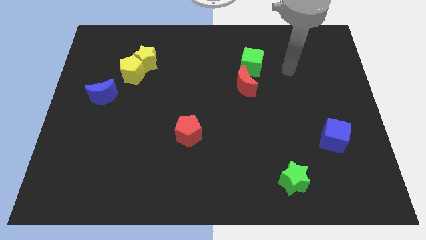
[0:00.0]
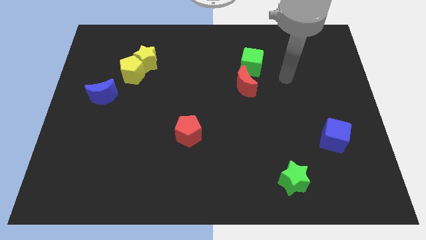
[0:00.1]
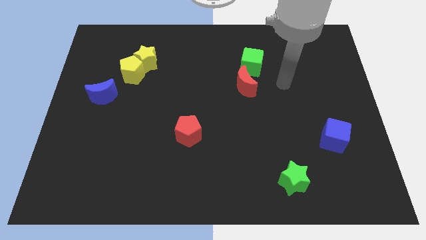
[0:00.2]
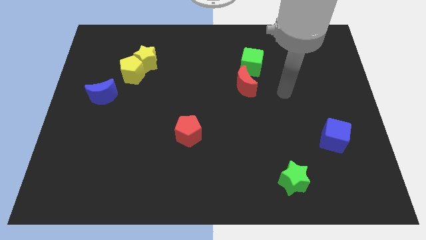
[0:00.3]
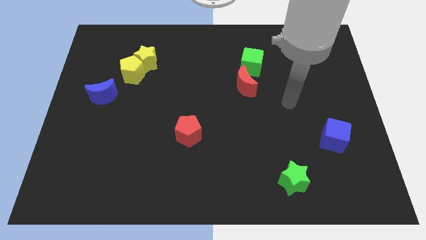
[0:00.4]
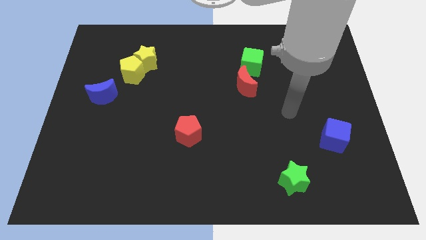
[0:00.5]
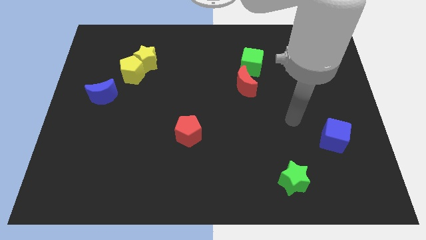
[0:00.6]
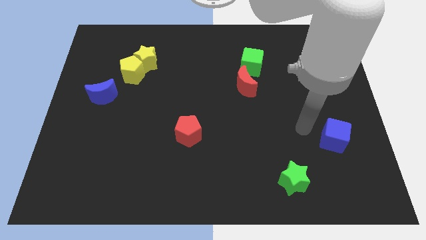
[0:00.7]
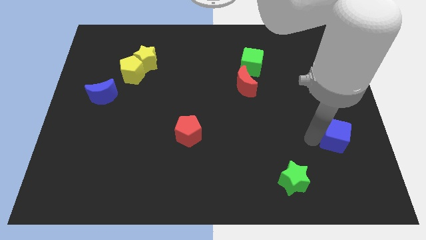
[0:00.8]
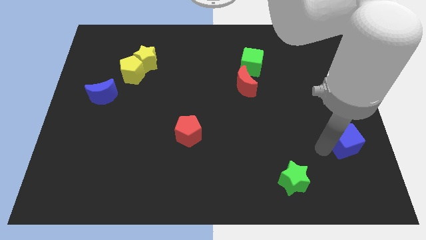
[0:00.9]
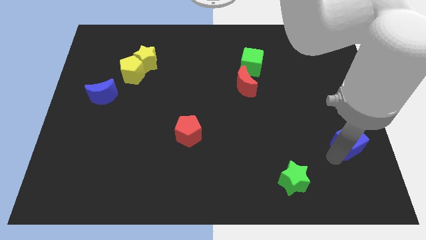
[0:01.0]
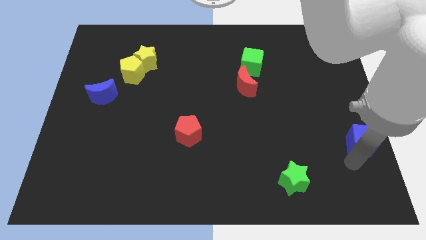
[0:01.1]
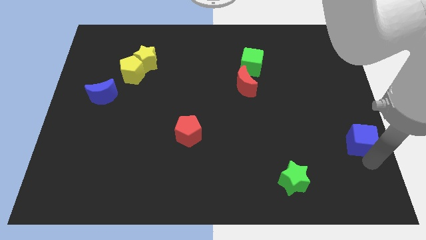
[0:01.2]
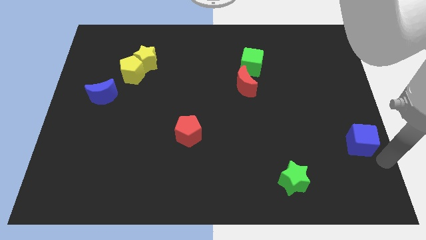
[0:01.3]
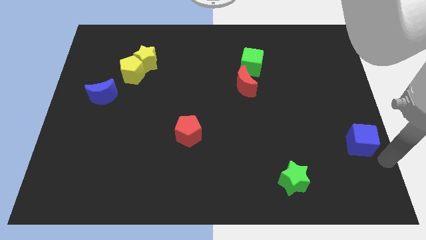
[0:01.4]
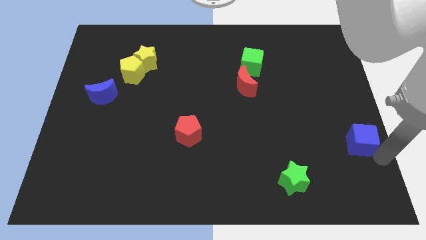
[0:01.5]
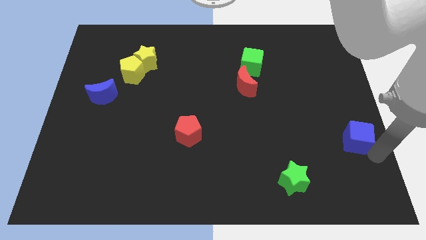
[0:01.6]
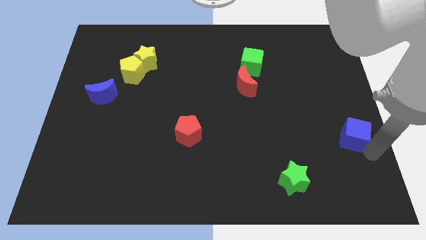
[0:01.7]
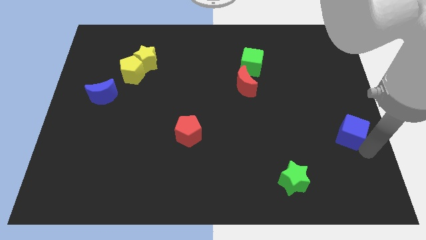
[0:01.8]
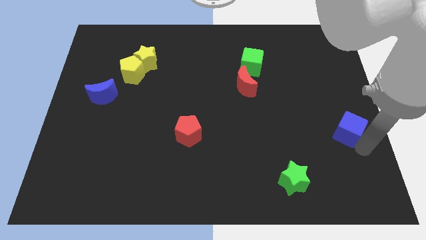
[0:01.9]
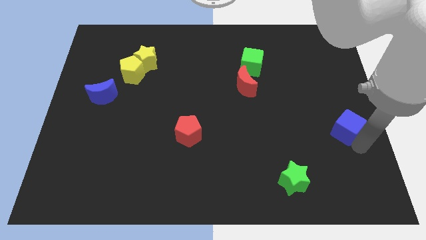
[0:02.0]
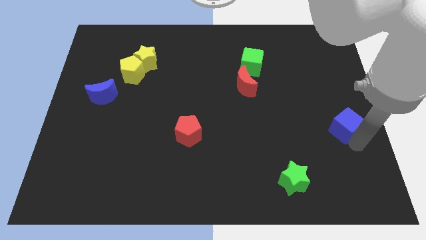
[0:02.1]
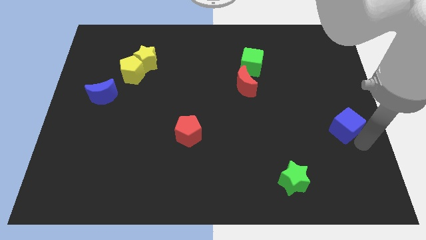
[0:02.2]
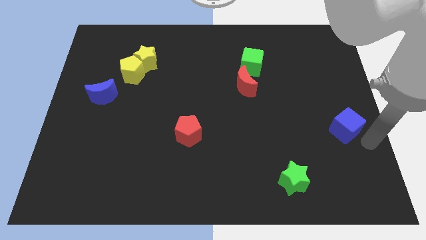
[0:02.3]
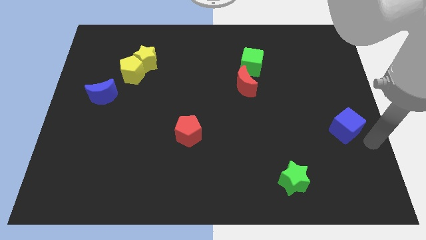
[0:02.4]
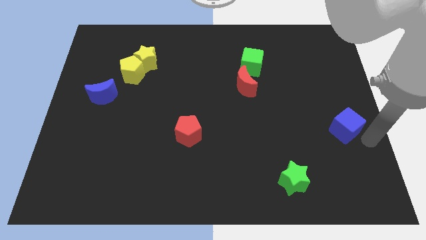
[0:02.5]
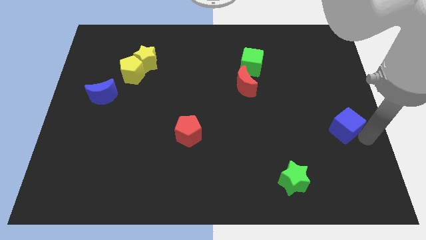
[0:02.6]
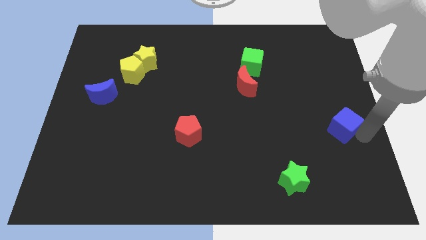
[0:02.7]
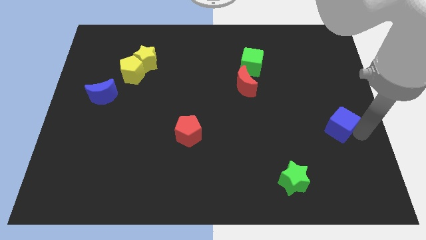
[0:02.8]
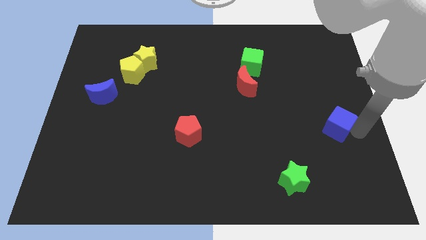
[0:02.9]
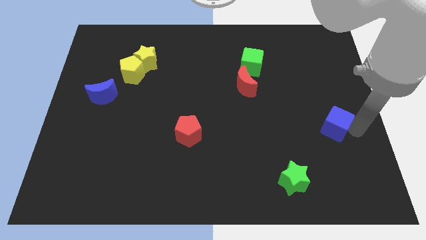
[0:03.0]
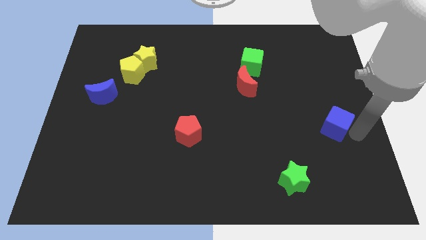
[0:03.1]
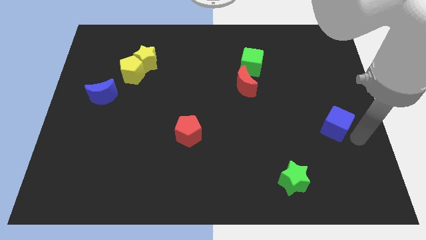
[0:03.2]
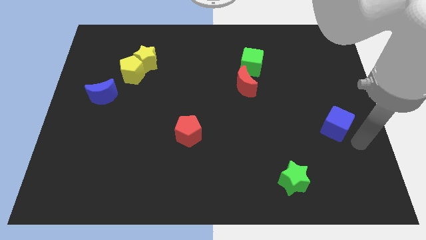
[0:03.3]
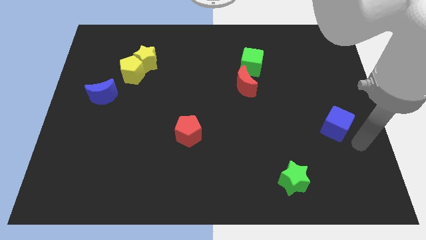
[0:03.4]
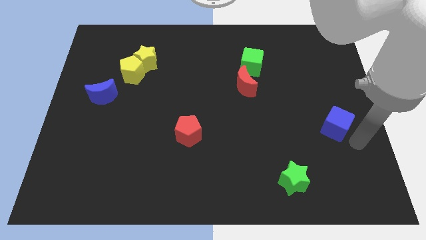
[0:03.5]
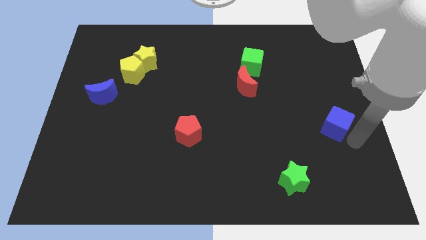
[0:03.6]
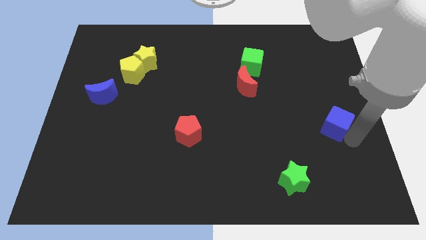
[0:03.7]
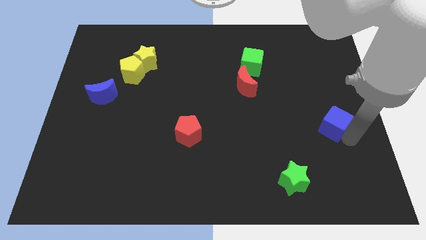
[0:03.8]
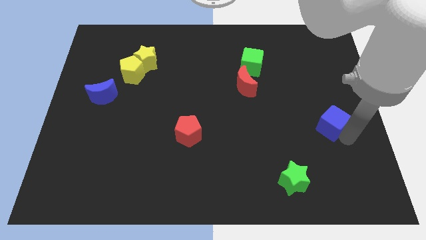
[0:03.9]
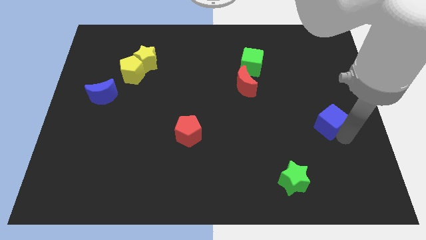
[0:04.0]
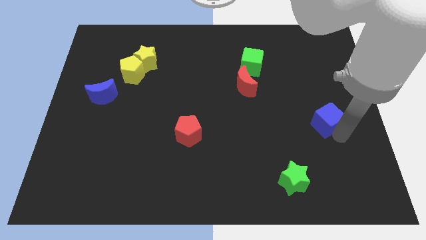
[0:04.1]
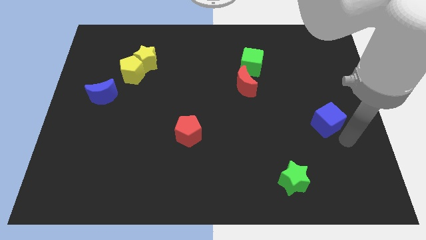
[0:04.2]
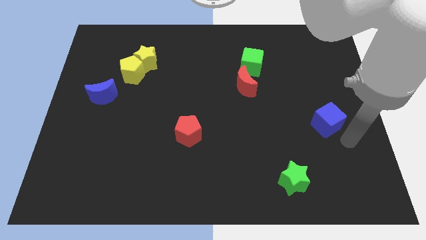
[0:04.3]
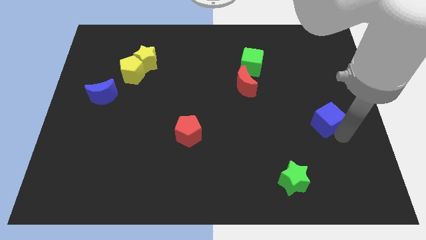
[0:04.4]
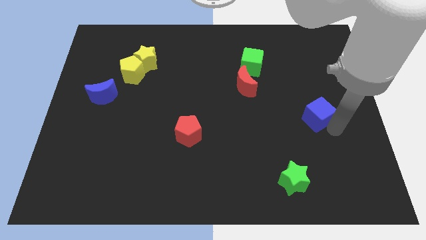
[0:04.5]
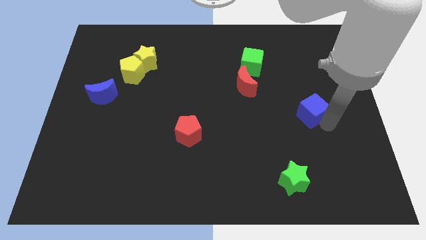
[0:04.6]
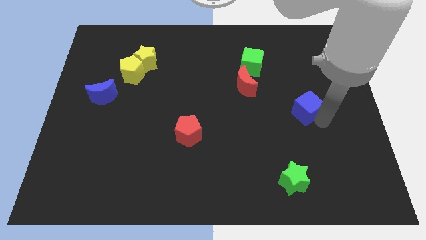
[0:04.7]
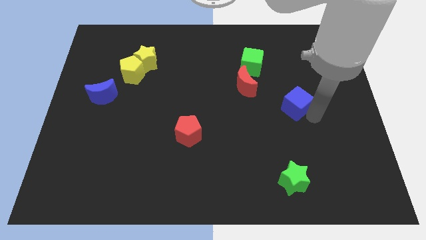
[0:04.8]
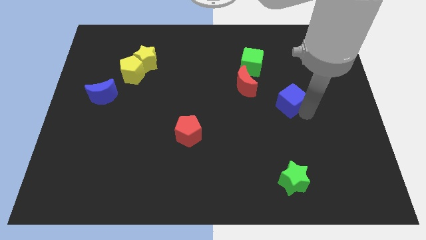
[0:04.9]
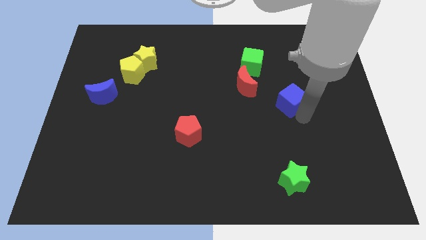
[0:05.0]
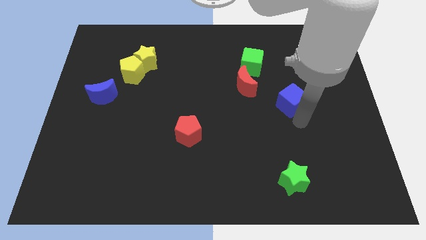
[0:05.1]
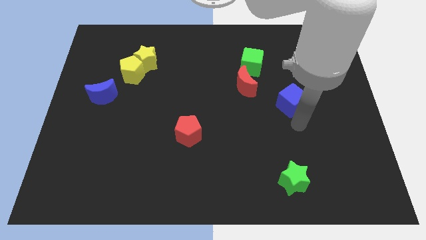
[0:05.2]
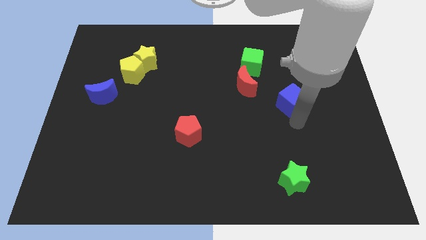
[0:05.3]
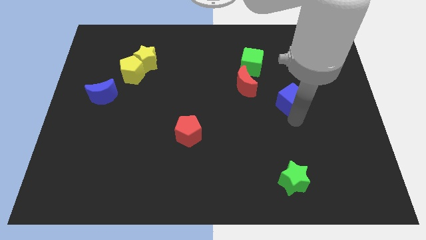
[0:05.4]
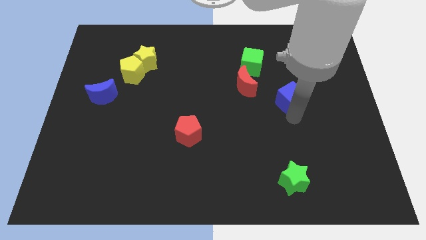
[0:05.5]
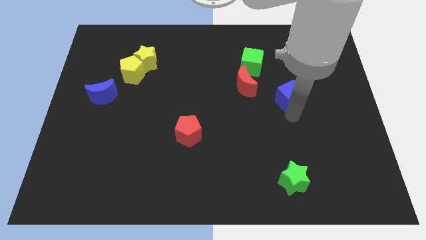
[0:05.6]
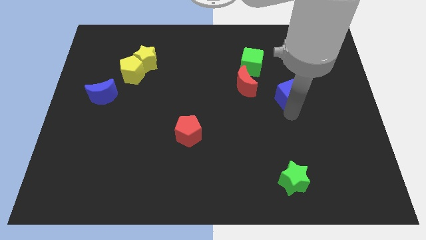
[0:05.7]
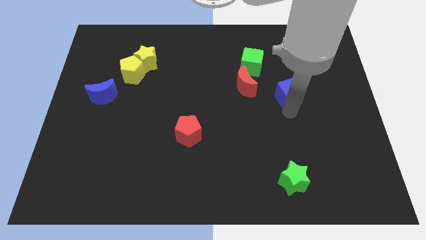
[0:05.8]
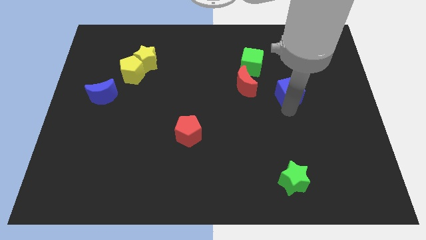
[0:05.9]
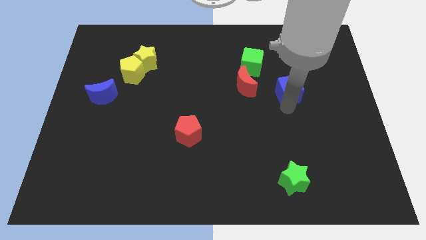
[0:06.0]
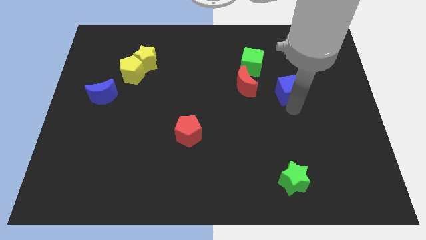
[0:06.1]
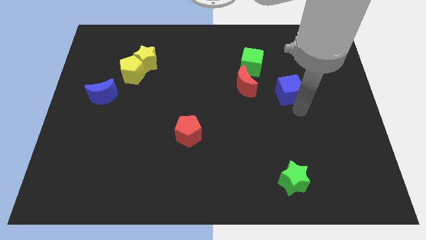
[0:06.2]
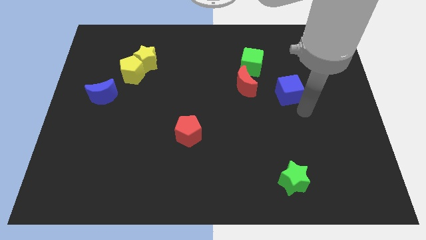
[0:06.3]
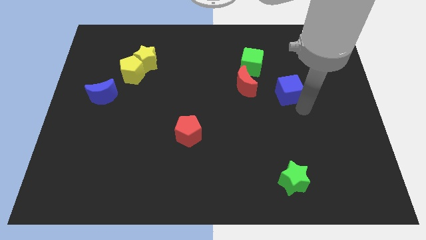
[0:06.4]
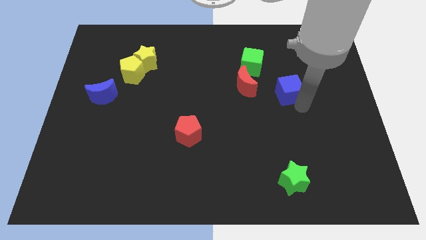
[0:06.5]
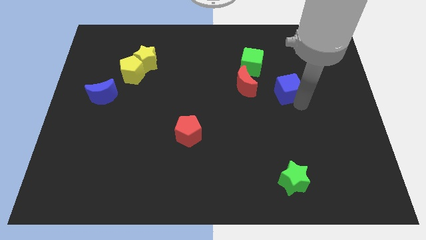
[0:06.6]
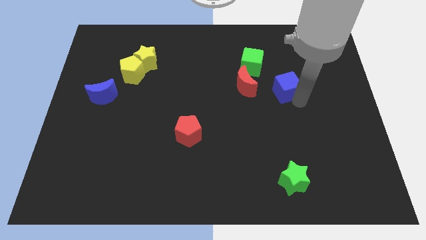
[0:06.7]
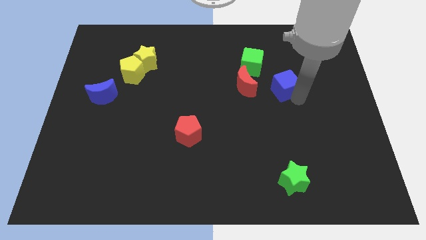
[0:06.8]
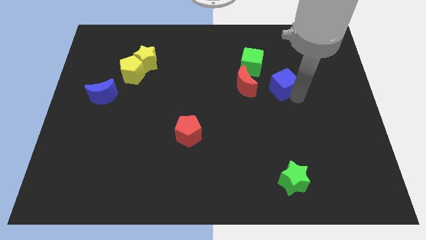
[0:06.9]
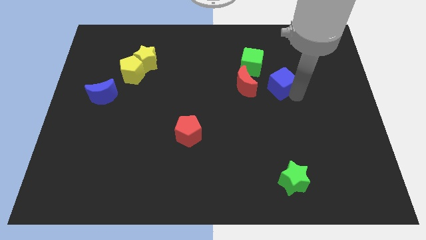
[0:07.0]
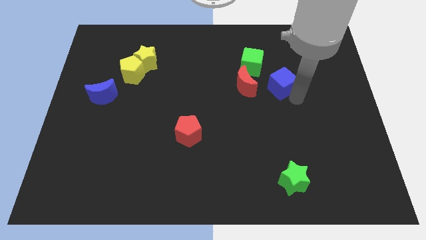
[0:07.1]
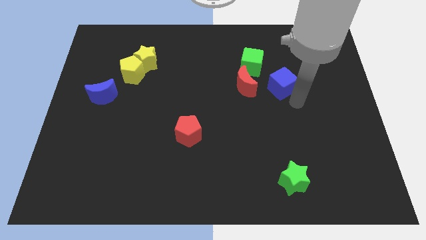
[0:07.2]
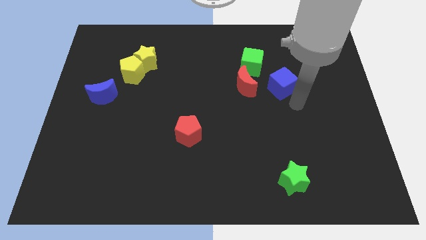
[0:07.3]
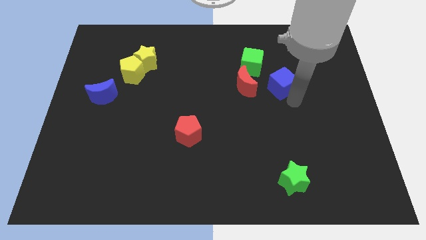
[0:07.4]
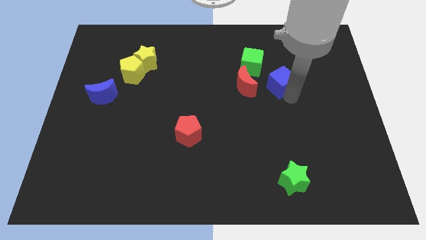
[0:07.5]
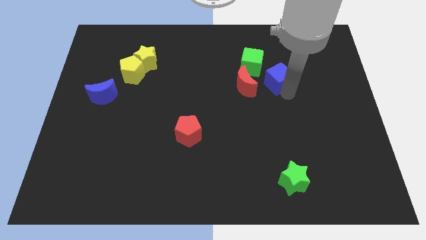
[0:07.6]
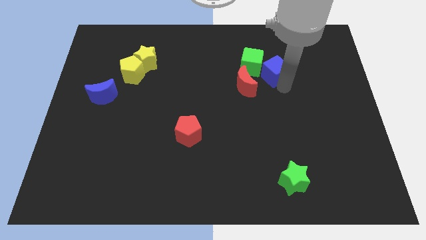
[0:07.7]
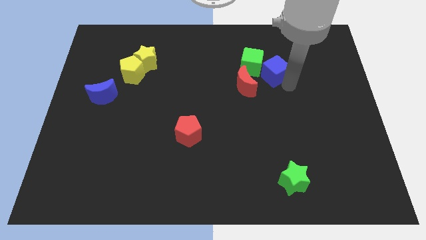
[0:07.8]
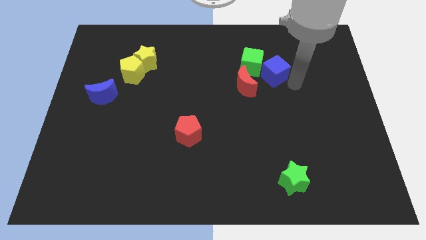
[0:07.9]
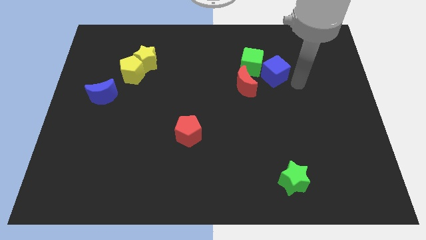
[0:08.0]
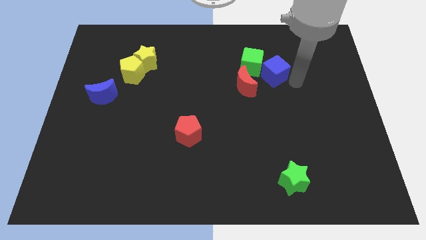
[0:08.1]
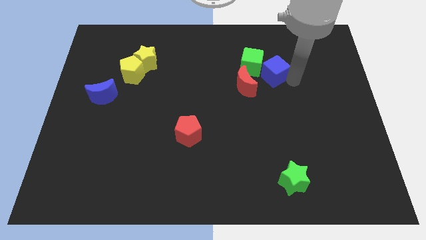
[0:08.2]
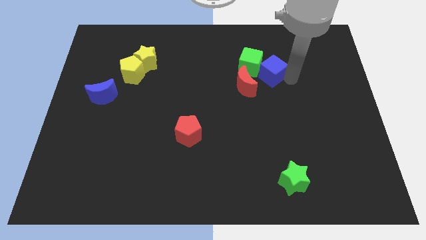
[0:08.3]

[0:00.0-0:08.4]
push the blue cube close to the green cube
